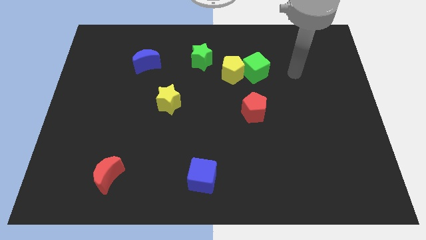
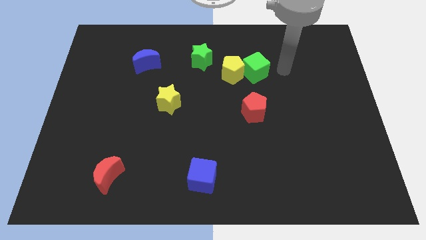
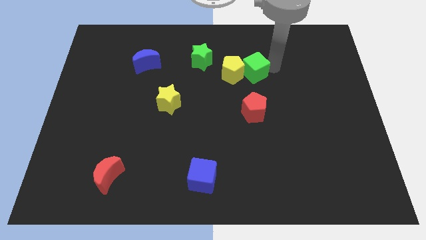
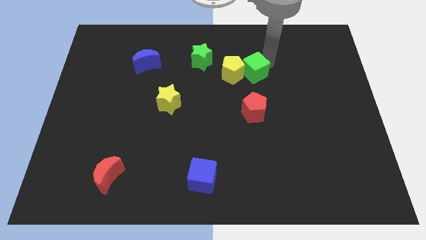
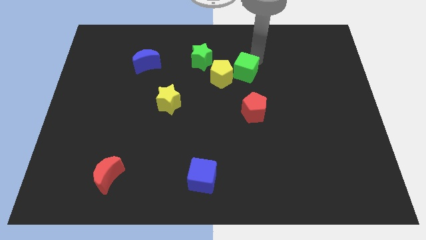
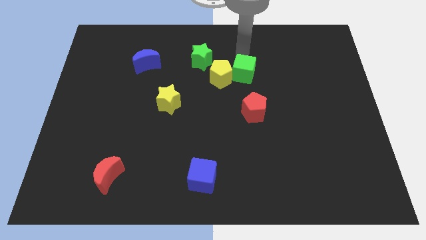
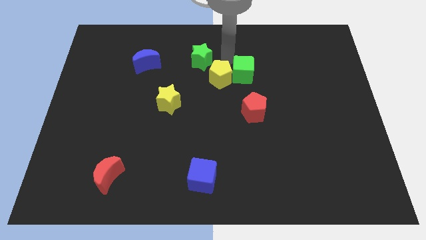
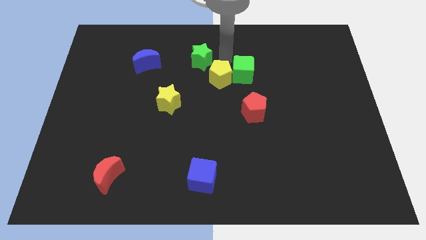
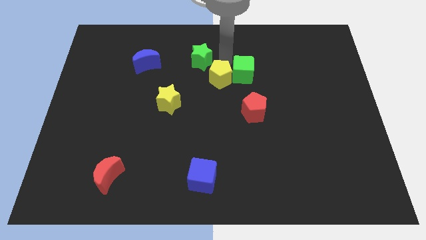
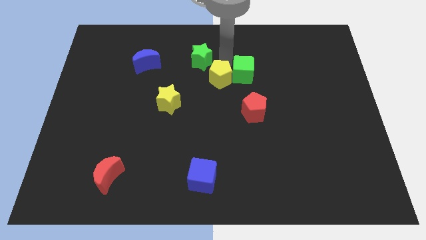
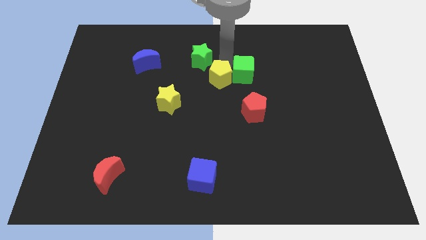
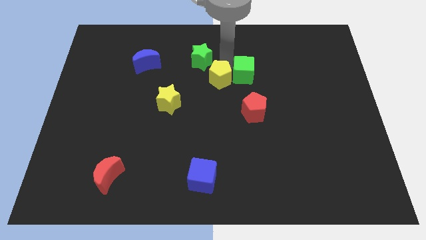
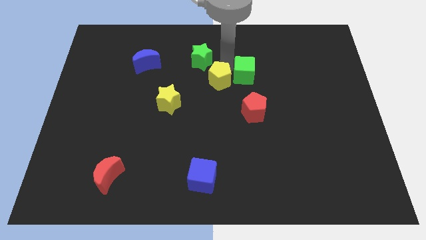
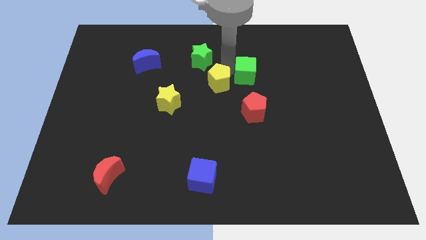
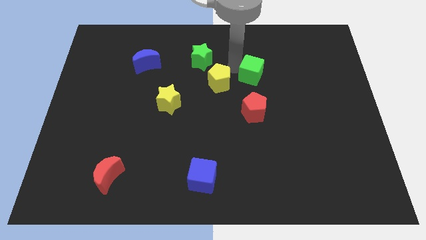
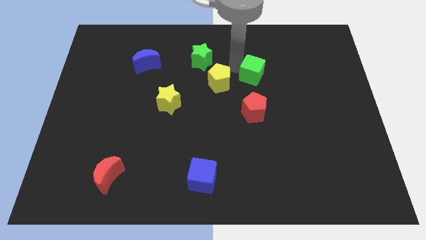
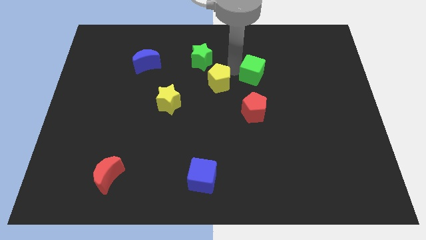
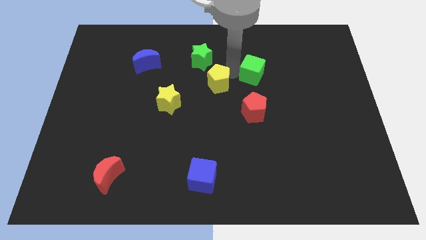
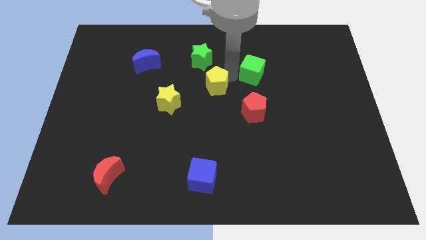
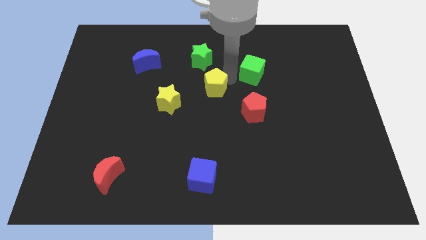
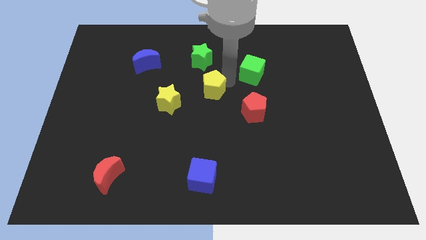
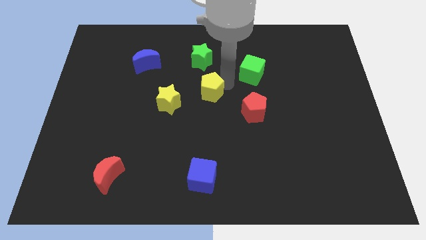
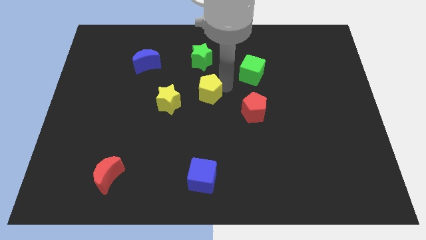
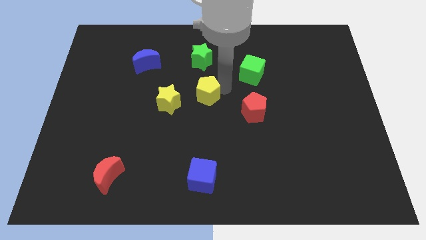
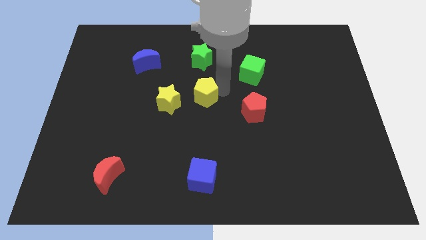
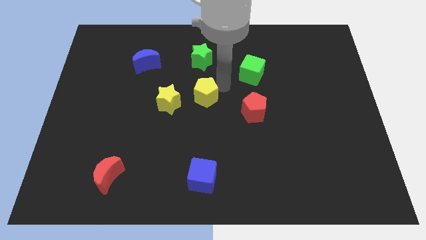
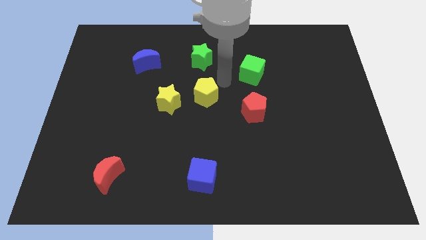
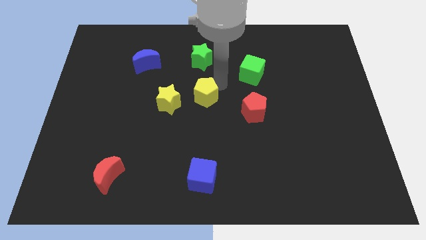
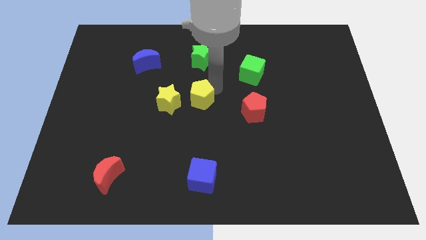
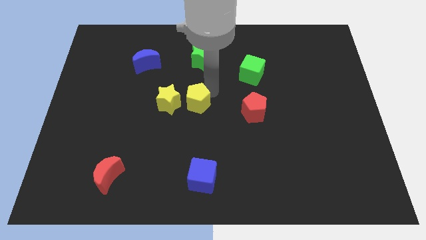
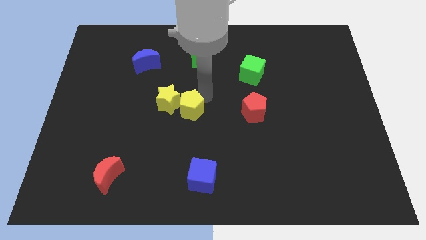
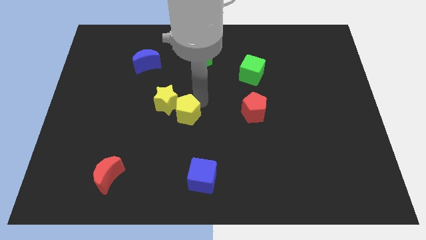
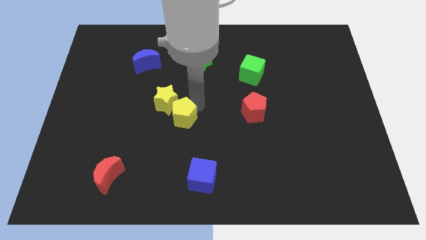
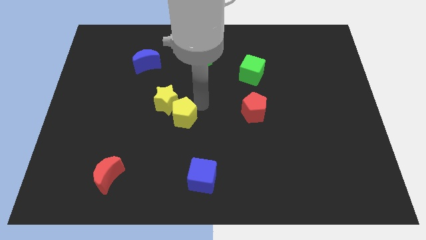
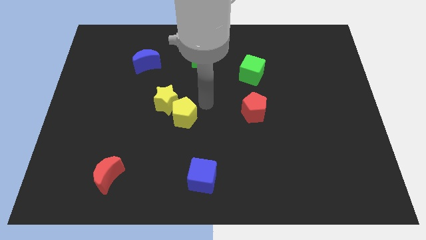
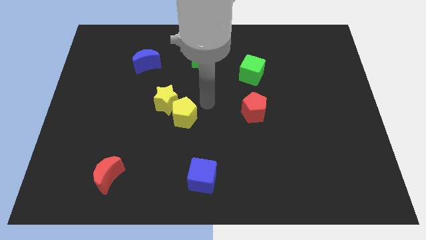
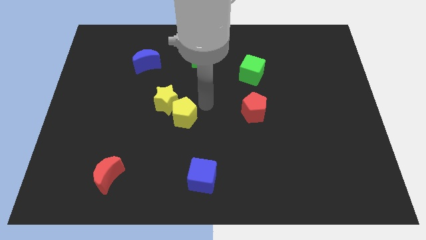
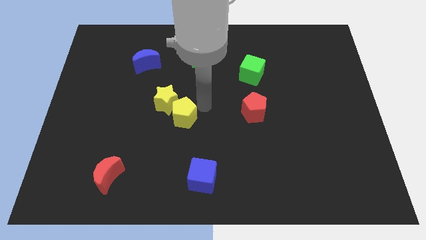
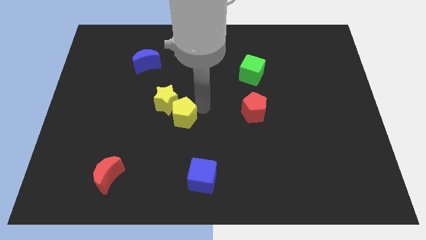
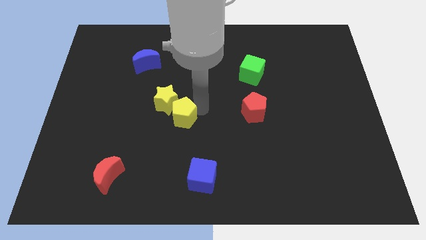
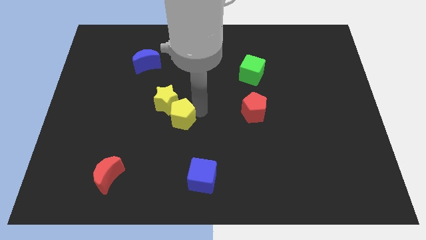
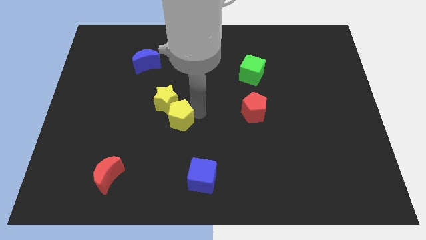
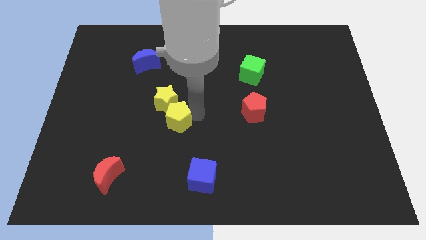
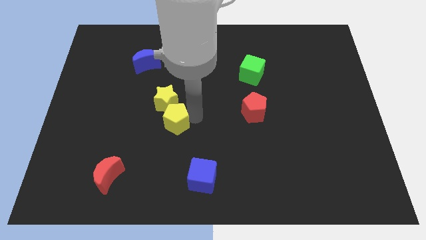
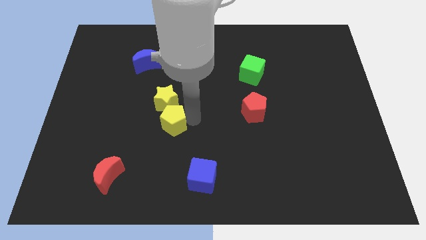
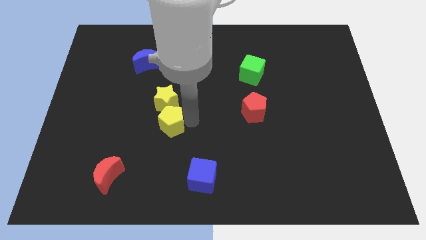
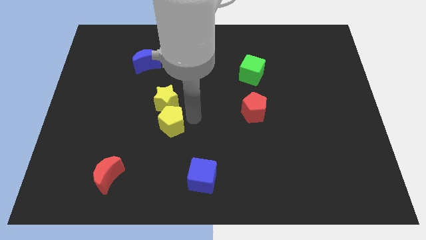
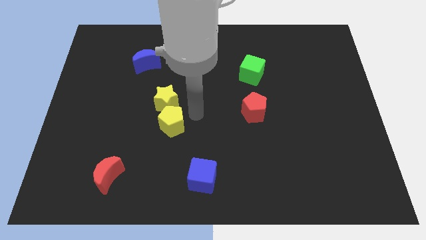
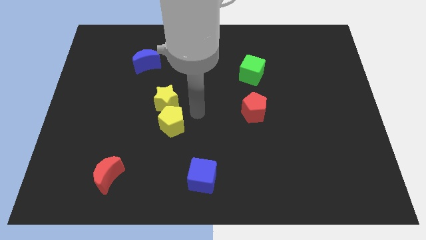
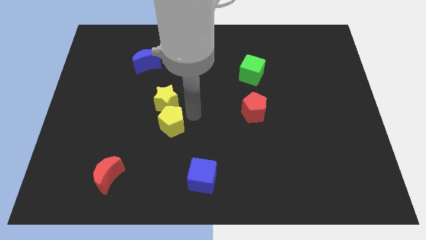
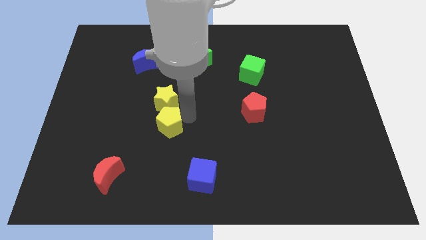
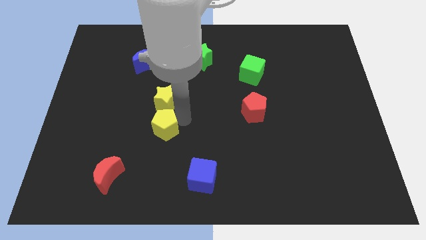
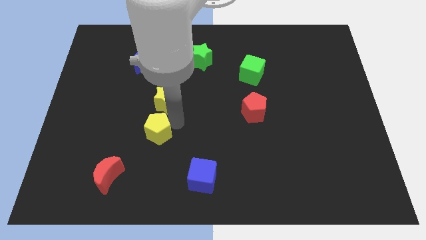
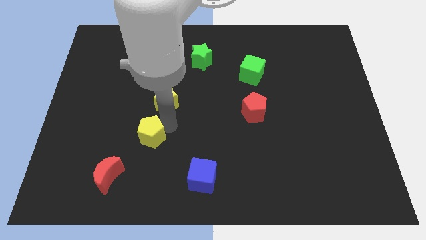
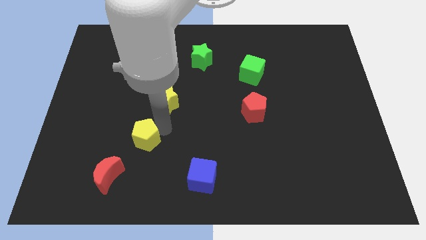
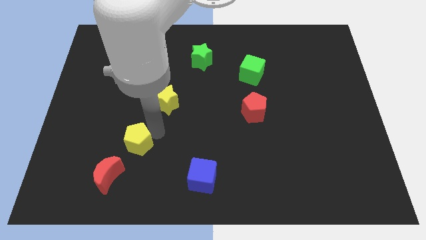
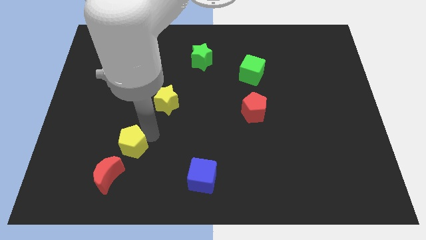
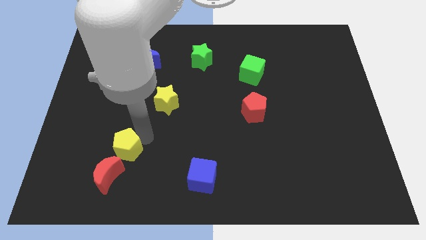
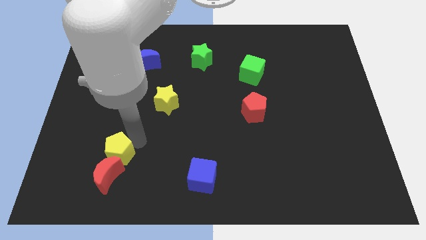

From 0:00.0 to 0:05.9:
push the yellow pentagon to the red moon

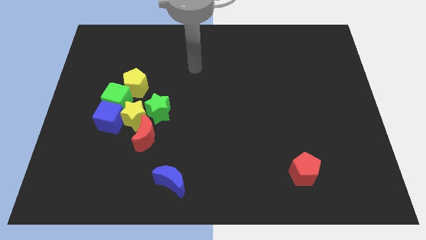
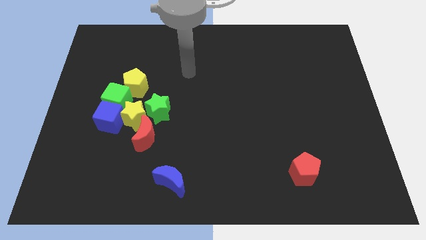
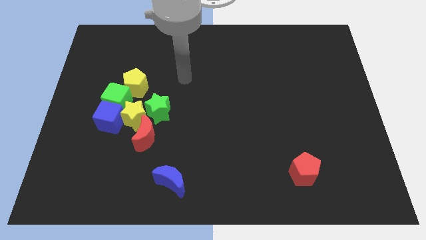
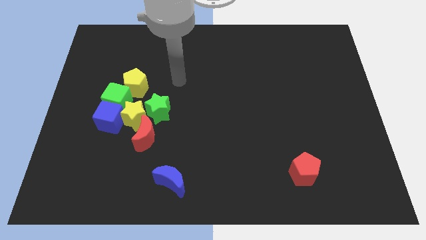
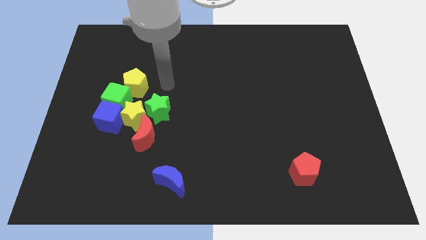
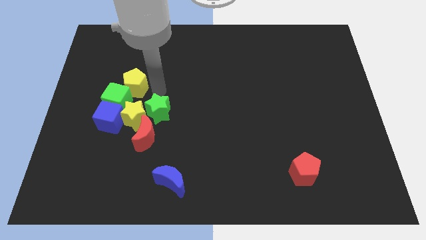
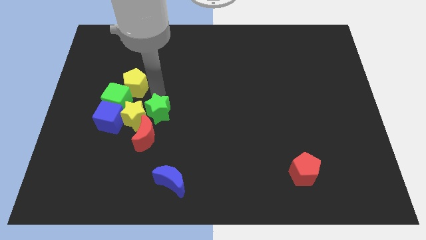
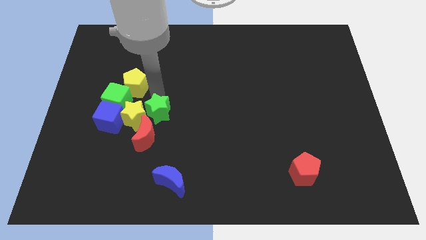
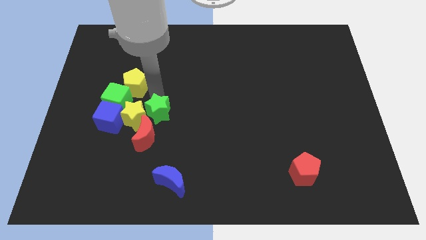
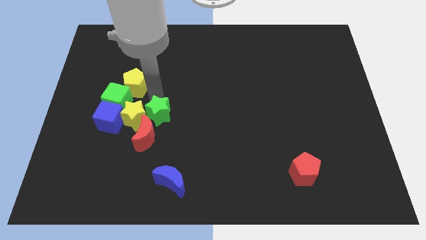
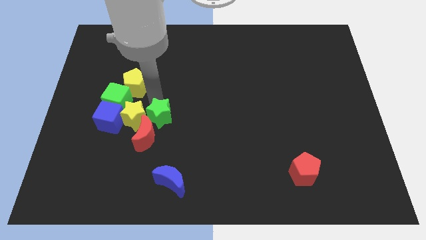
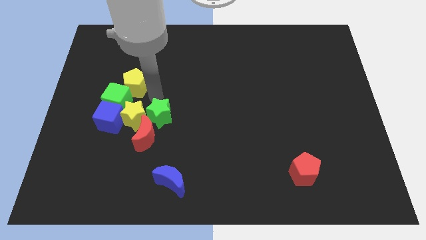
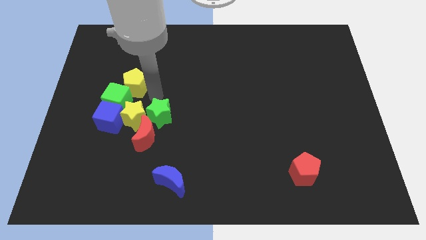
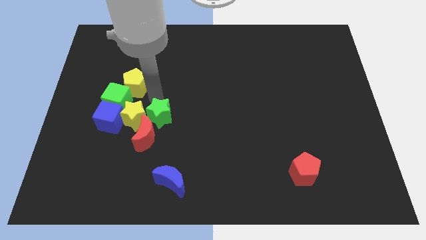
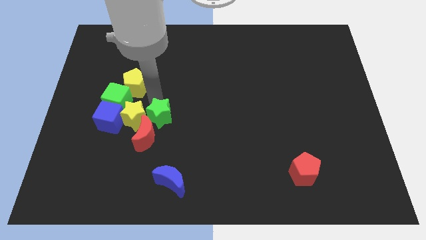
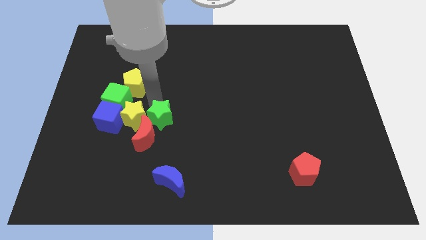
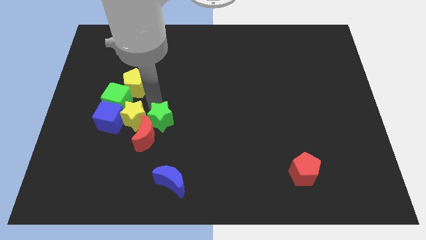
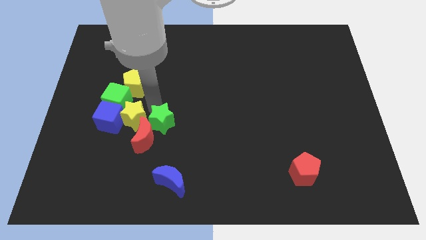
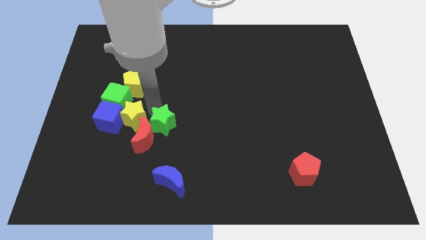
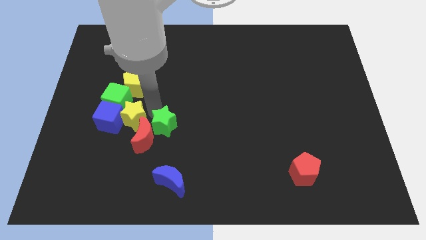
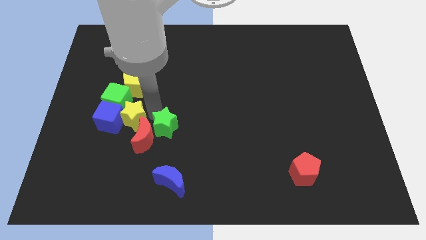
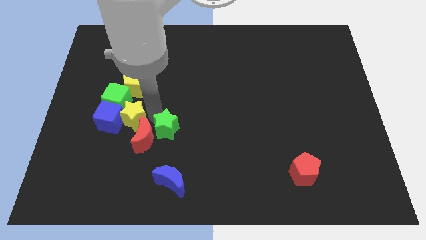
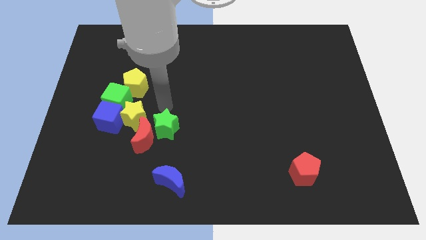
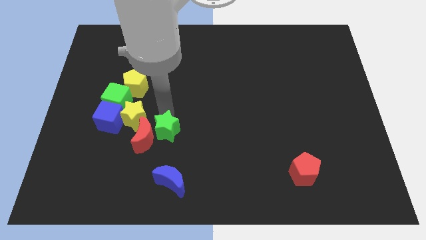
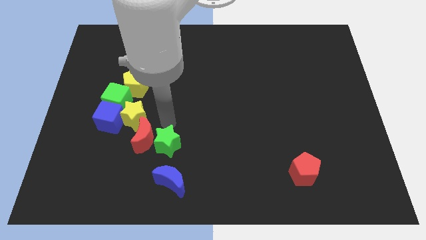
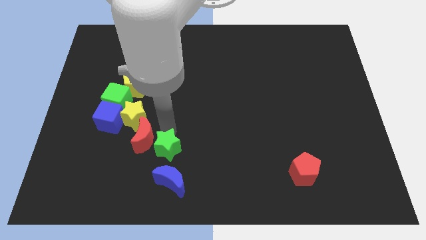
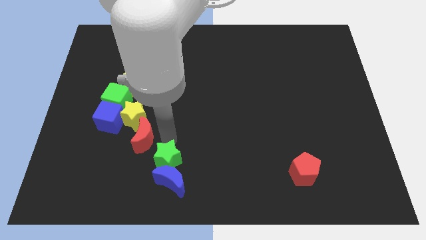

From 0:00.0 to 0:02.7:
put the green star close to the blue moon

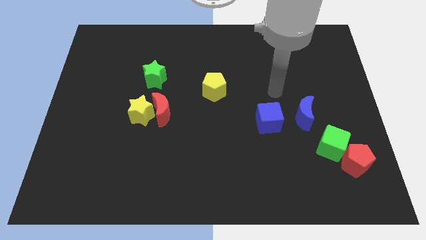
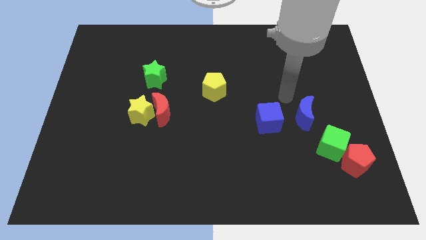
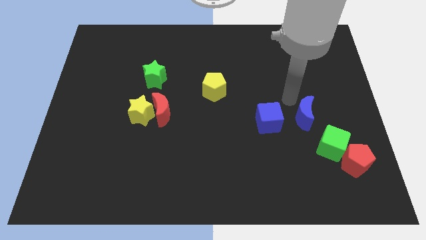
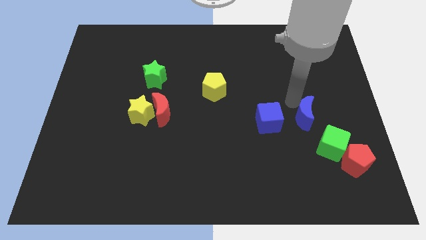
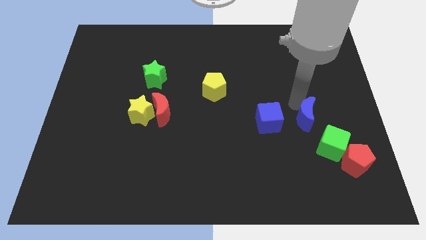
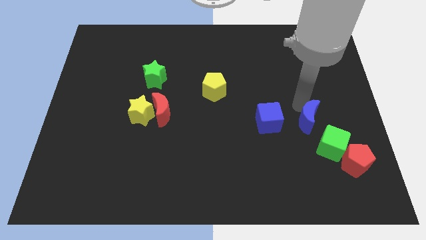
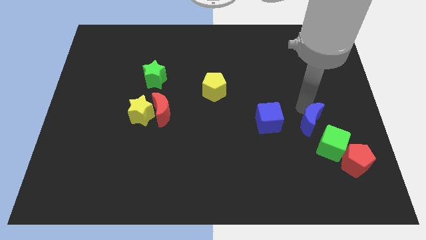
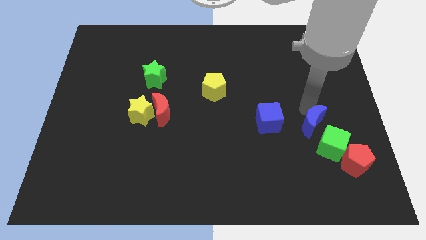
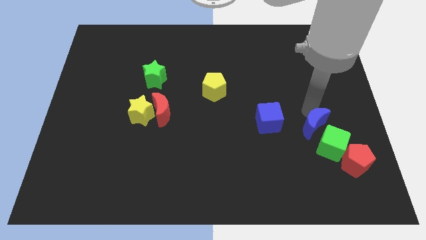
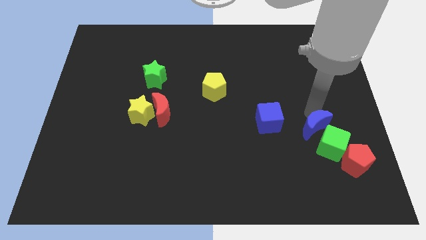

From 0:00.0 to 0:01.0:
move the blue moon towards the green cube
